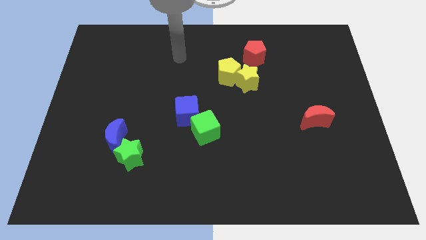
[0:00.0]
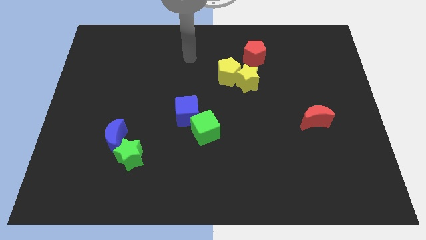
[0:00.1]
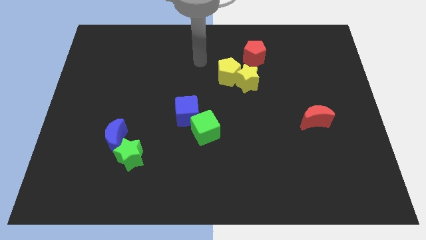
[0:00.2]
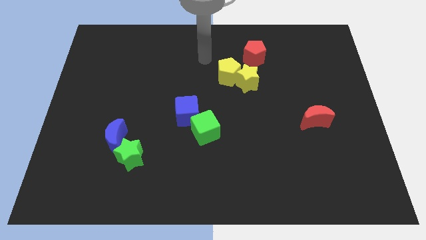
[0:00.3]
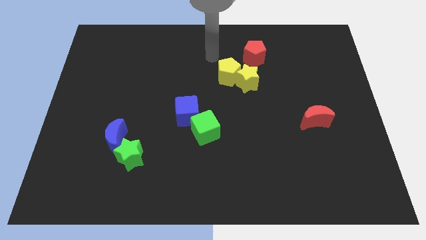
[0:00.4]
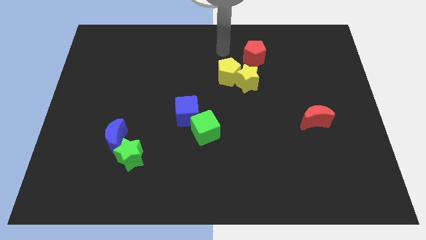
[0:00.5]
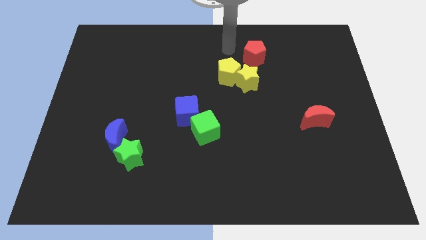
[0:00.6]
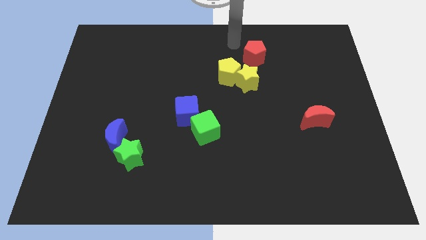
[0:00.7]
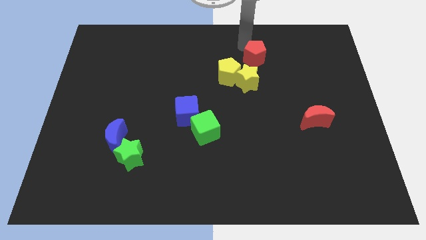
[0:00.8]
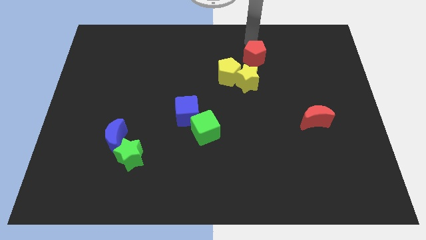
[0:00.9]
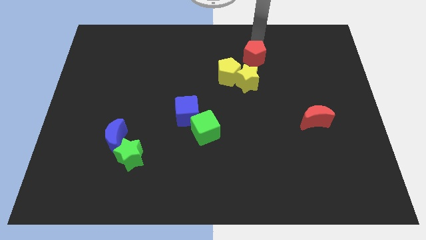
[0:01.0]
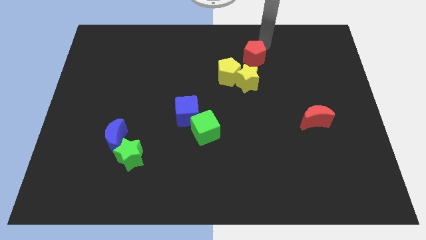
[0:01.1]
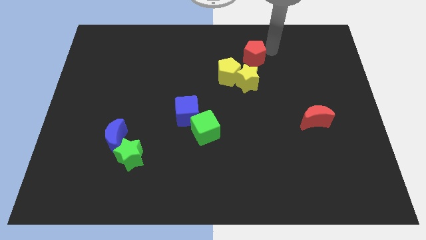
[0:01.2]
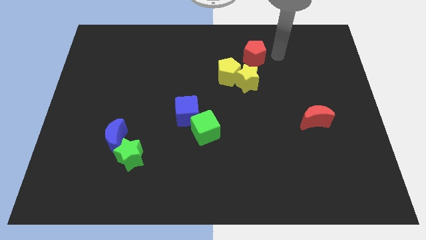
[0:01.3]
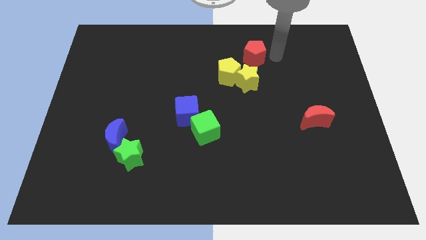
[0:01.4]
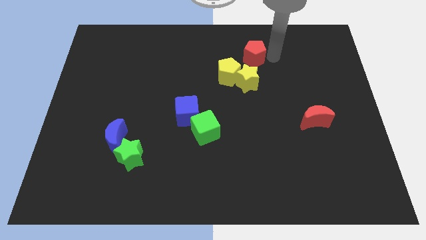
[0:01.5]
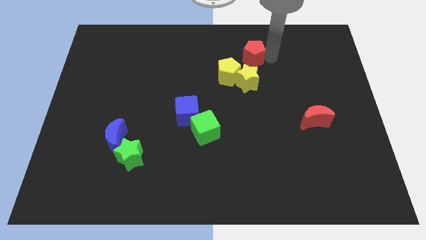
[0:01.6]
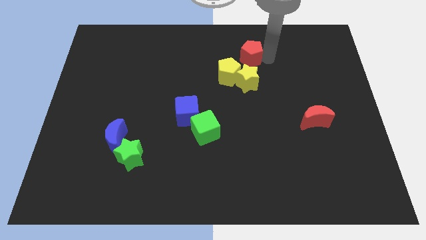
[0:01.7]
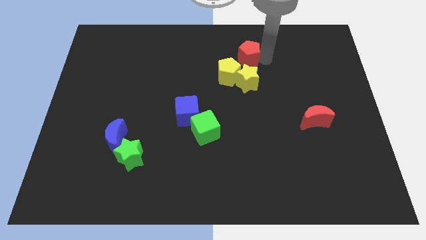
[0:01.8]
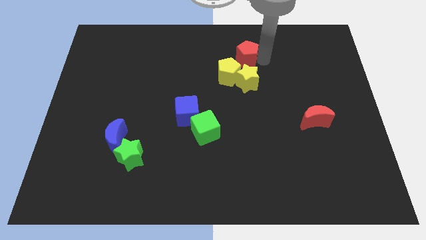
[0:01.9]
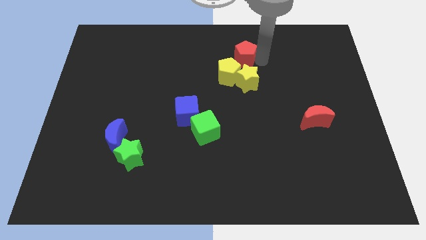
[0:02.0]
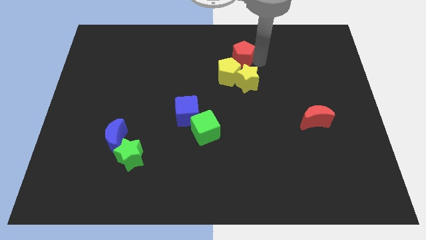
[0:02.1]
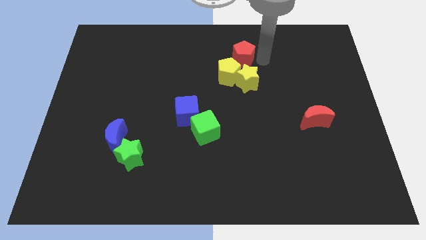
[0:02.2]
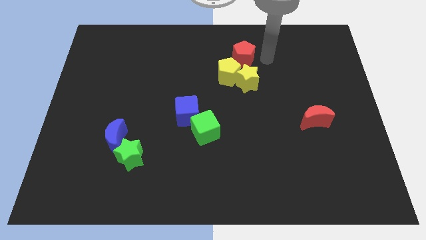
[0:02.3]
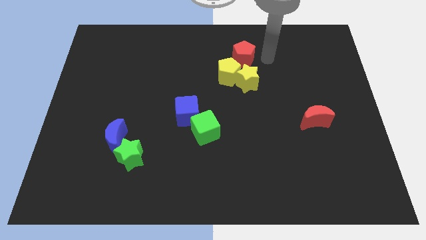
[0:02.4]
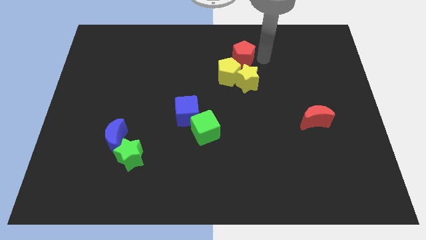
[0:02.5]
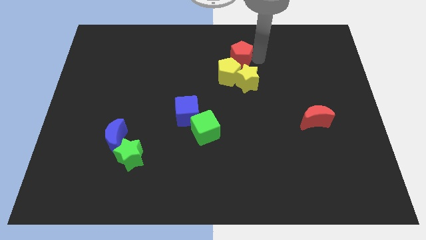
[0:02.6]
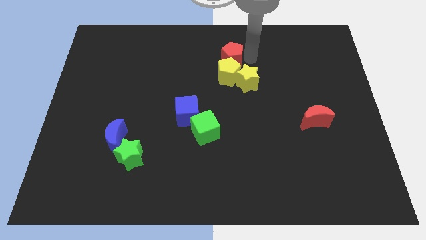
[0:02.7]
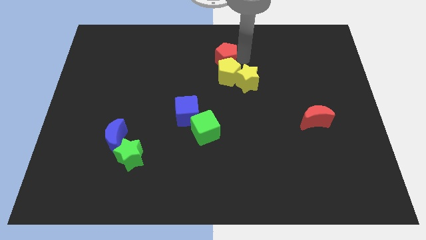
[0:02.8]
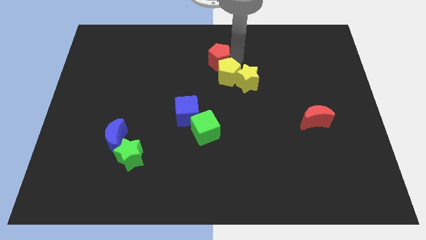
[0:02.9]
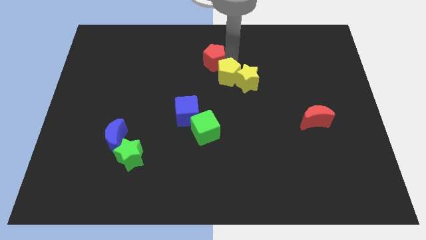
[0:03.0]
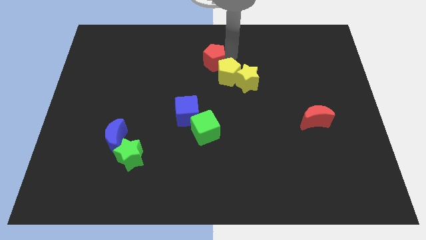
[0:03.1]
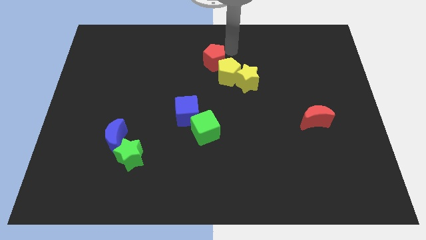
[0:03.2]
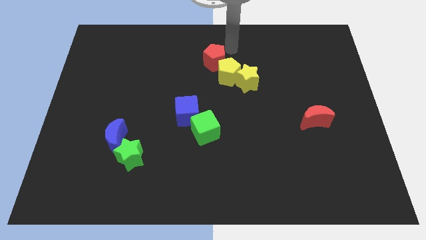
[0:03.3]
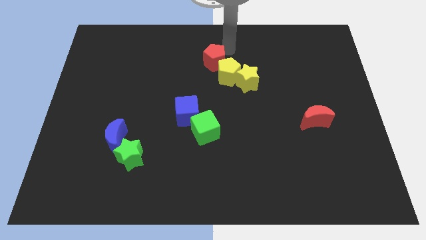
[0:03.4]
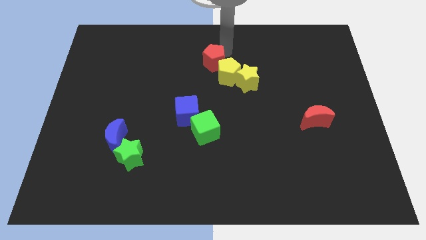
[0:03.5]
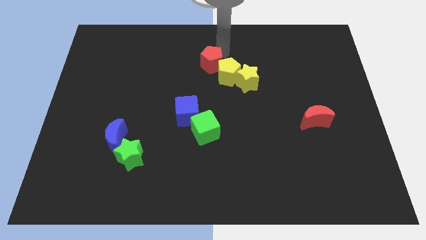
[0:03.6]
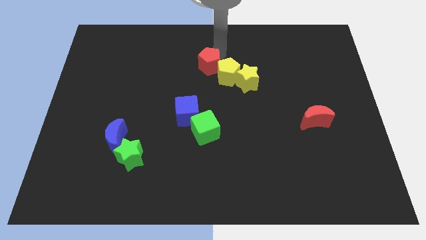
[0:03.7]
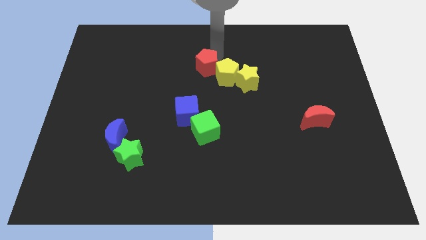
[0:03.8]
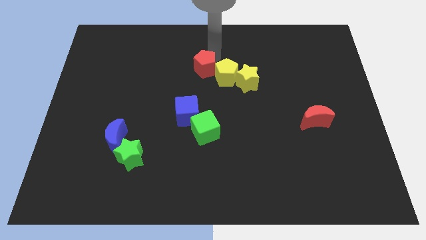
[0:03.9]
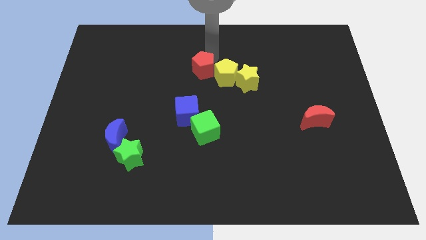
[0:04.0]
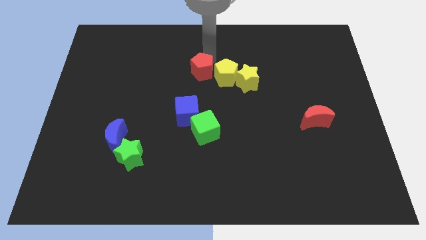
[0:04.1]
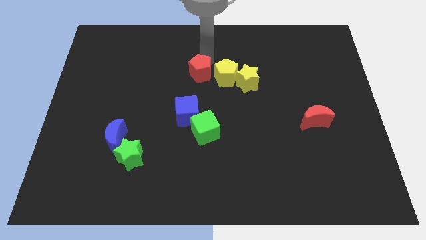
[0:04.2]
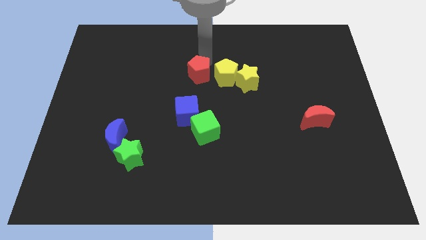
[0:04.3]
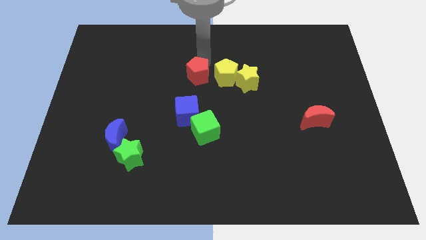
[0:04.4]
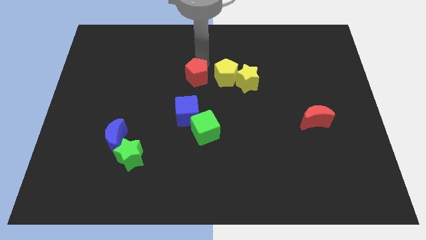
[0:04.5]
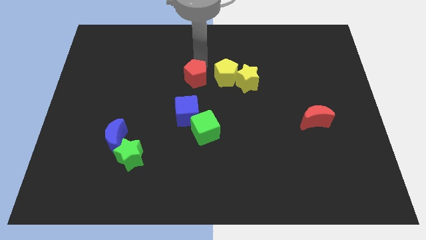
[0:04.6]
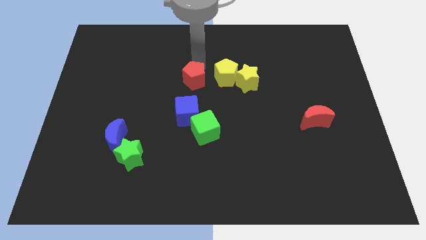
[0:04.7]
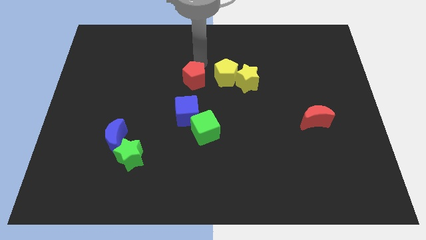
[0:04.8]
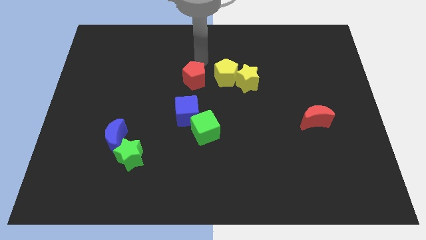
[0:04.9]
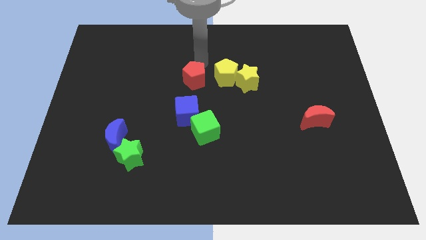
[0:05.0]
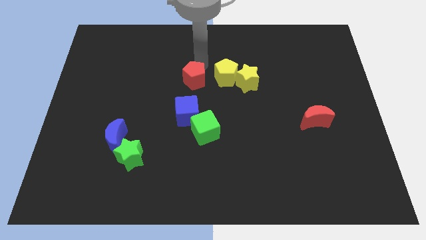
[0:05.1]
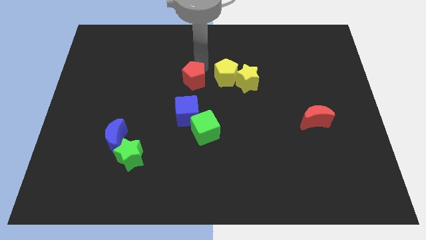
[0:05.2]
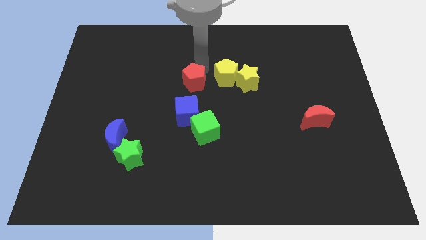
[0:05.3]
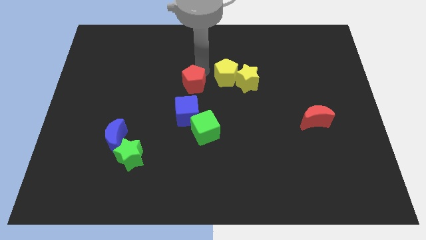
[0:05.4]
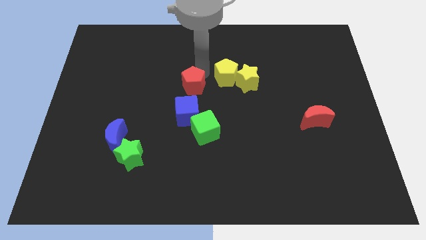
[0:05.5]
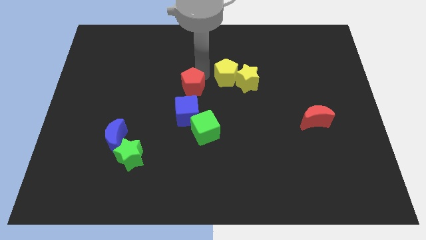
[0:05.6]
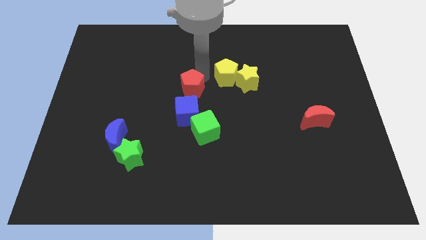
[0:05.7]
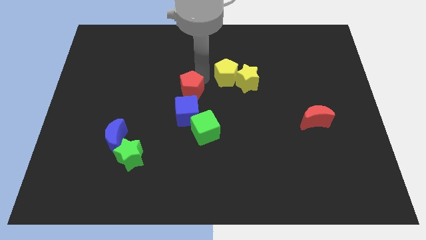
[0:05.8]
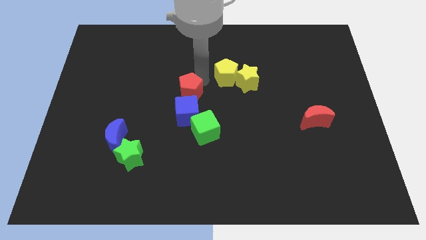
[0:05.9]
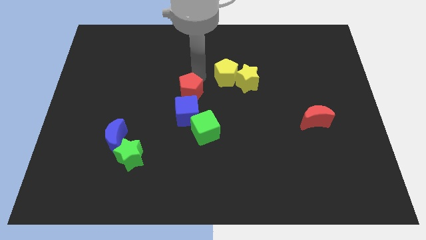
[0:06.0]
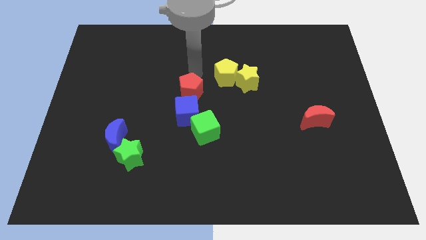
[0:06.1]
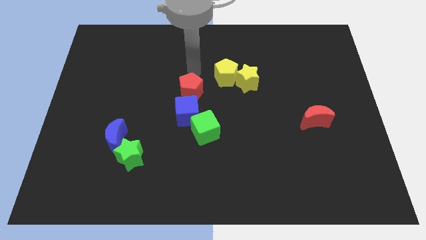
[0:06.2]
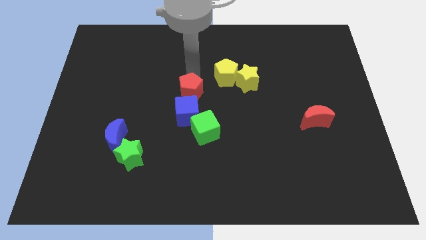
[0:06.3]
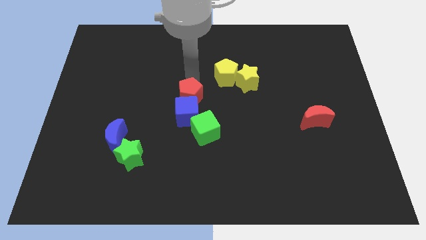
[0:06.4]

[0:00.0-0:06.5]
move the red pentagon next to the blue cube

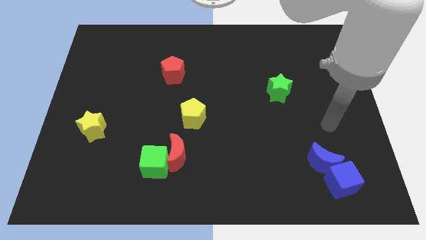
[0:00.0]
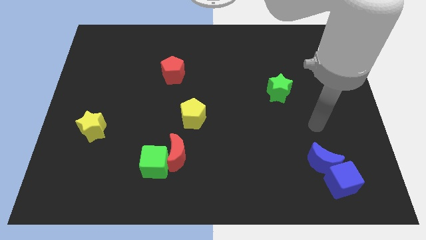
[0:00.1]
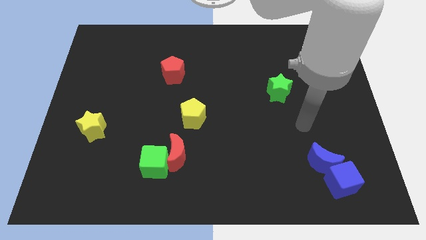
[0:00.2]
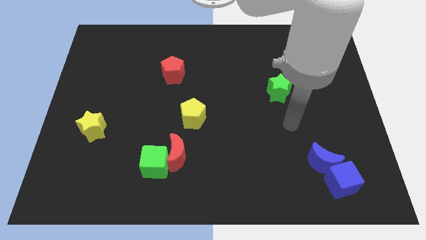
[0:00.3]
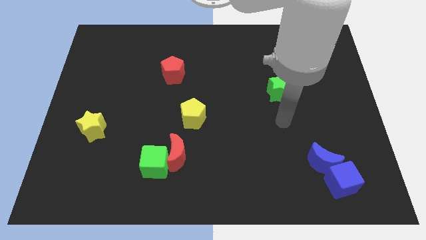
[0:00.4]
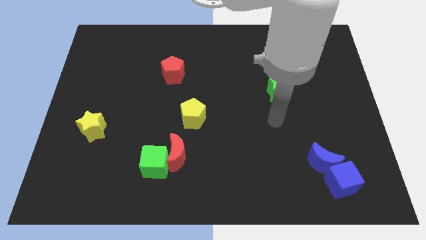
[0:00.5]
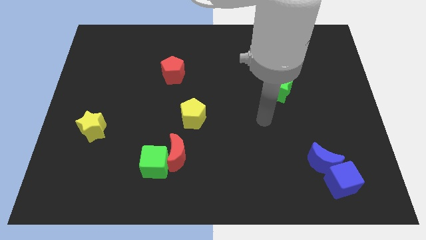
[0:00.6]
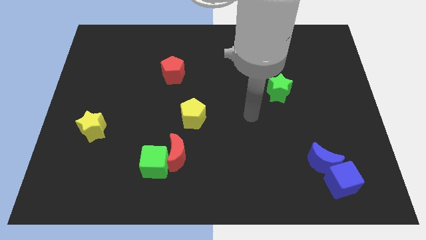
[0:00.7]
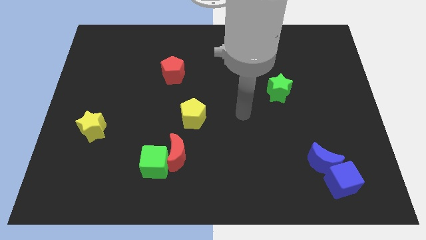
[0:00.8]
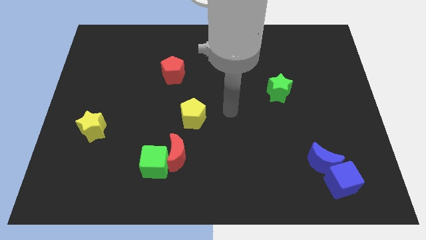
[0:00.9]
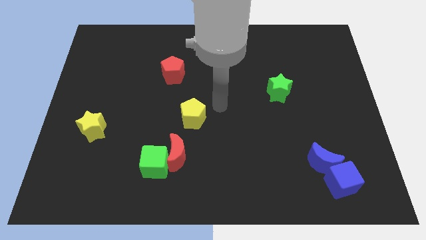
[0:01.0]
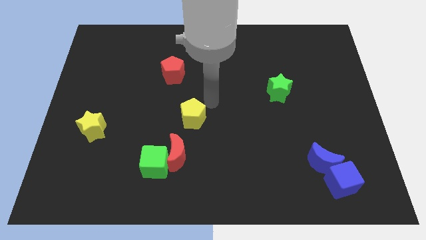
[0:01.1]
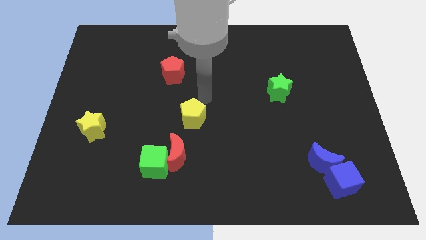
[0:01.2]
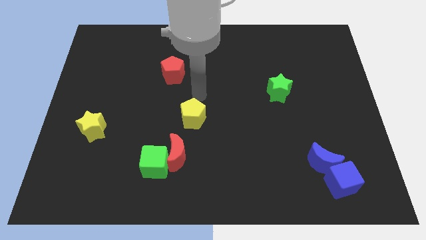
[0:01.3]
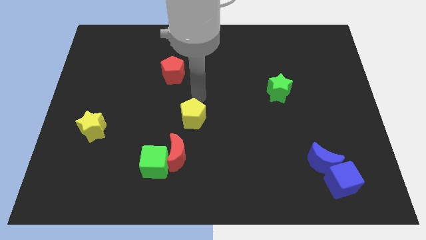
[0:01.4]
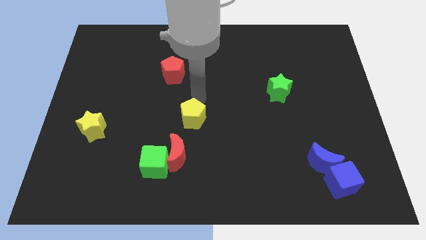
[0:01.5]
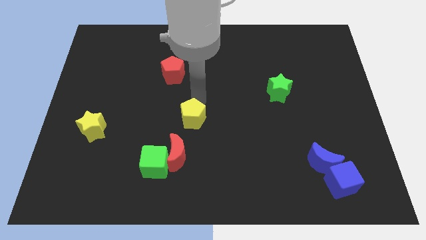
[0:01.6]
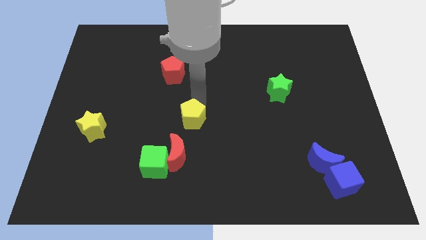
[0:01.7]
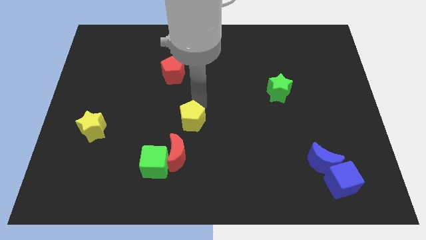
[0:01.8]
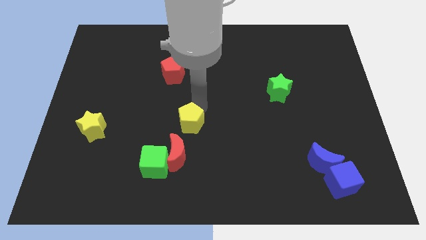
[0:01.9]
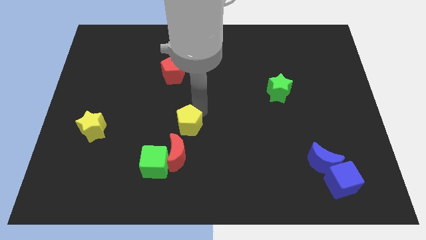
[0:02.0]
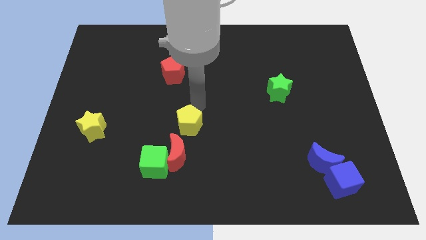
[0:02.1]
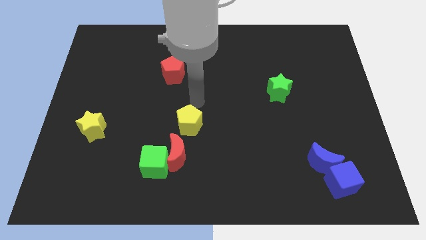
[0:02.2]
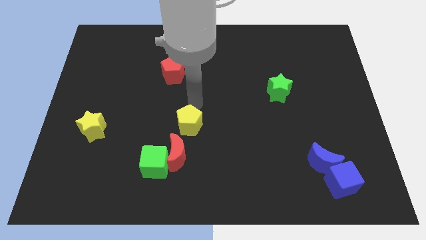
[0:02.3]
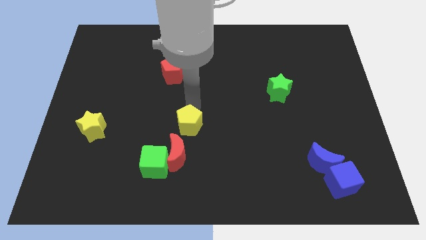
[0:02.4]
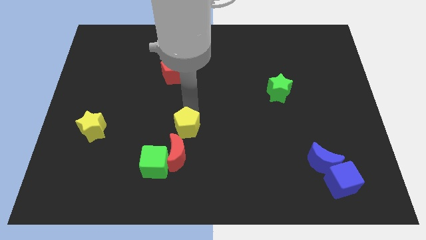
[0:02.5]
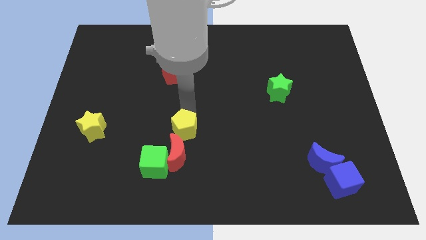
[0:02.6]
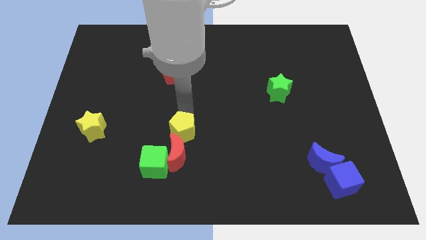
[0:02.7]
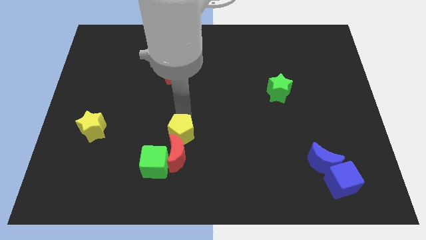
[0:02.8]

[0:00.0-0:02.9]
push the yellow pentagon towards the red moon
